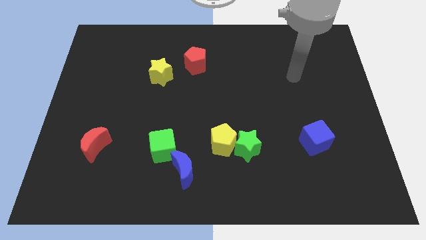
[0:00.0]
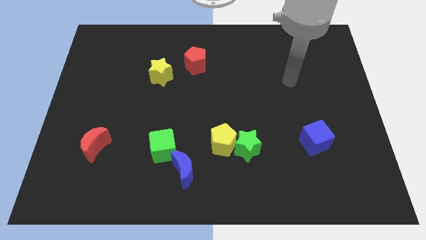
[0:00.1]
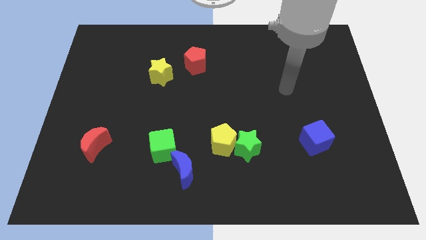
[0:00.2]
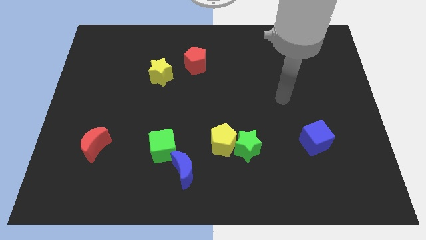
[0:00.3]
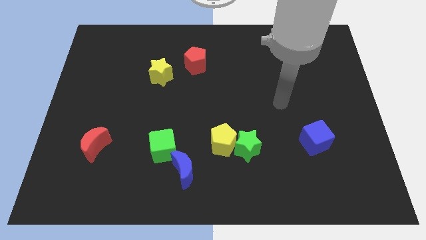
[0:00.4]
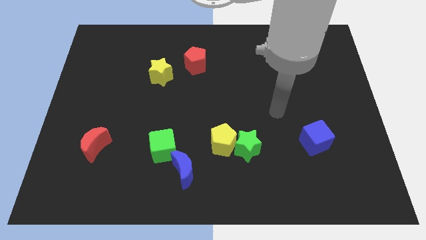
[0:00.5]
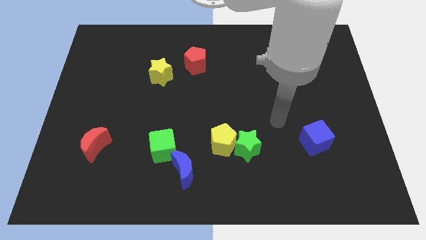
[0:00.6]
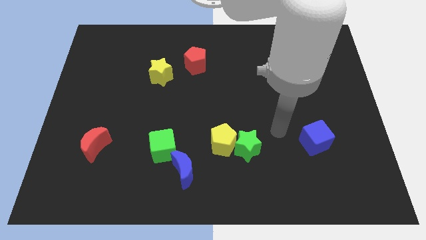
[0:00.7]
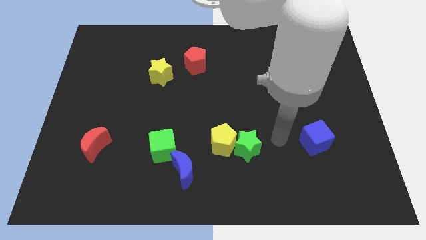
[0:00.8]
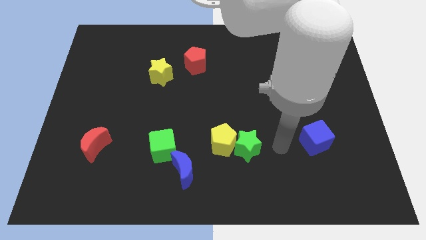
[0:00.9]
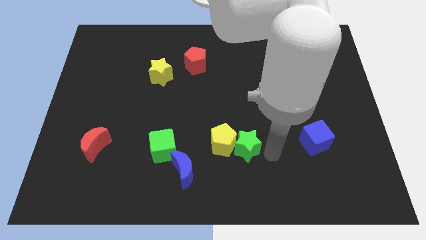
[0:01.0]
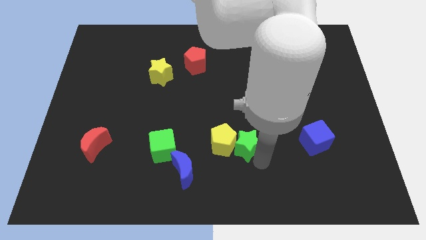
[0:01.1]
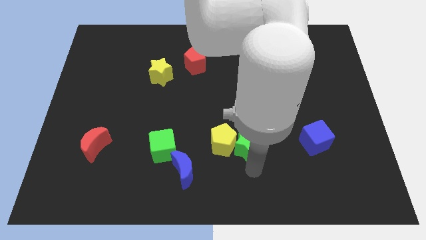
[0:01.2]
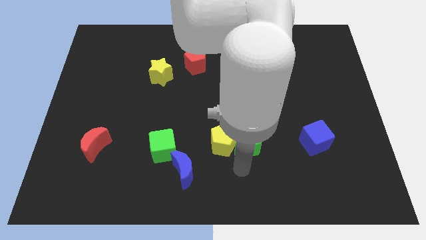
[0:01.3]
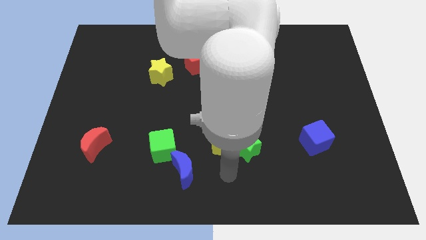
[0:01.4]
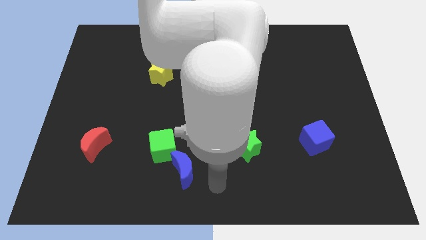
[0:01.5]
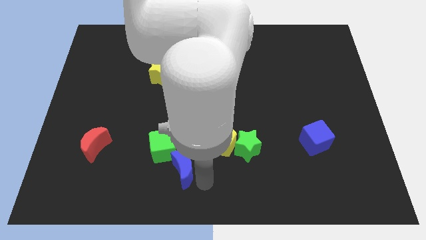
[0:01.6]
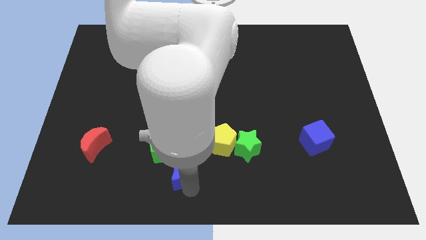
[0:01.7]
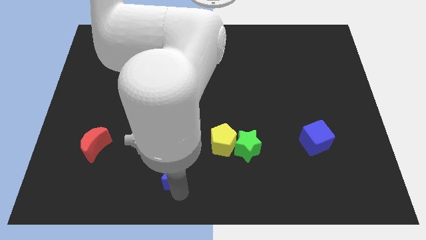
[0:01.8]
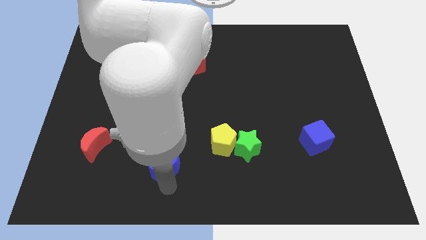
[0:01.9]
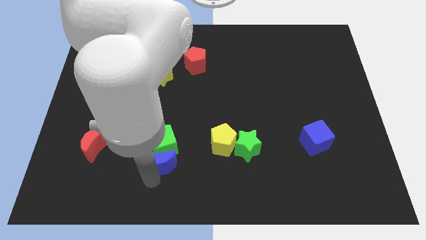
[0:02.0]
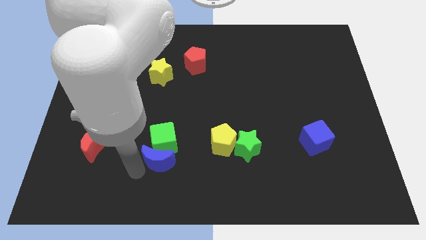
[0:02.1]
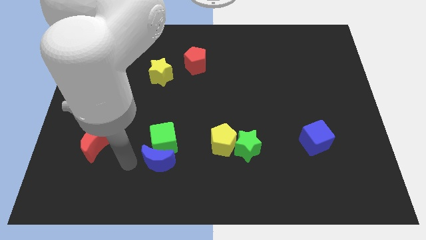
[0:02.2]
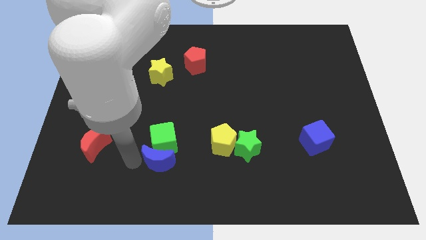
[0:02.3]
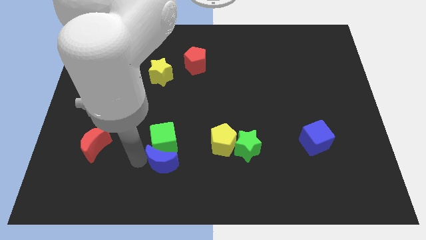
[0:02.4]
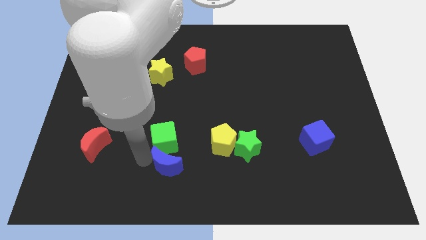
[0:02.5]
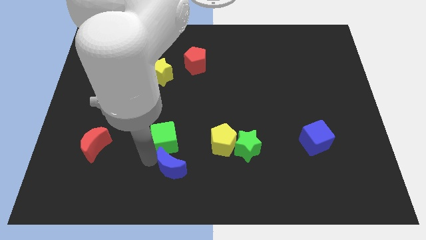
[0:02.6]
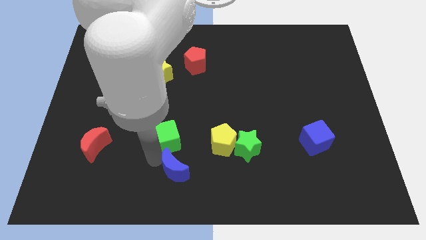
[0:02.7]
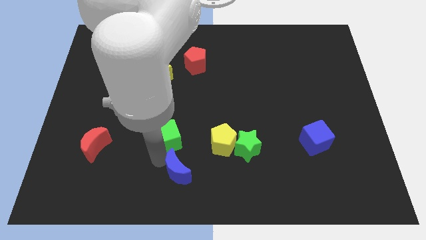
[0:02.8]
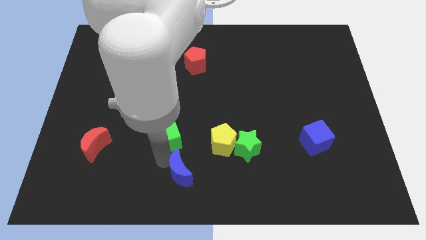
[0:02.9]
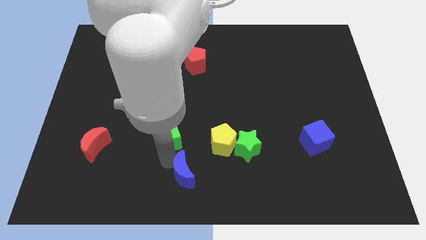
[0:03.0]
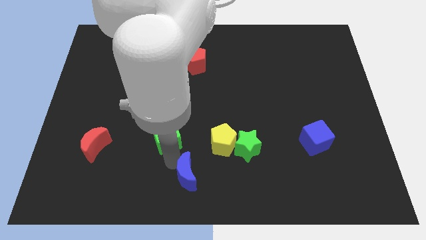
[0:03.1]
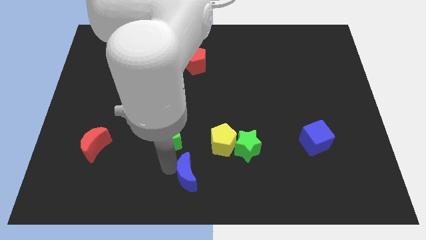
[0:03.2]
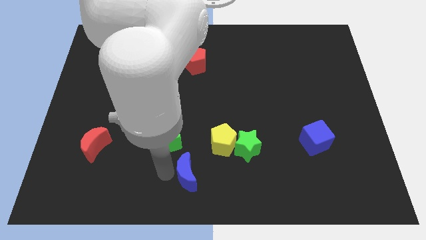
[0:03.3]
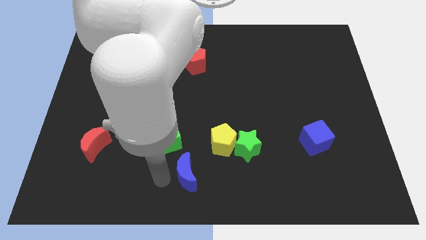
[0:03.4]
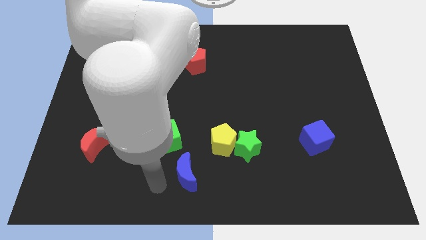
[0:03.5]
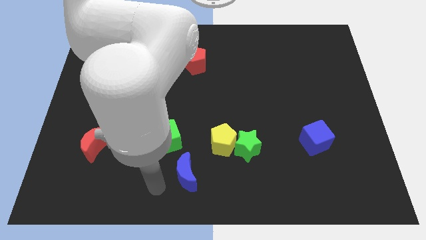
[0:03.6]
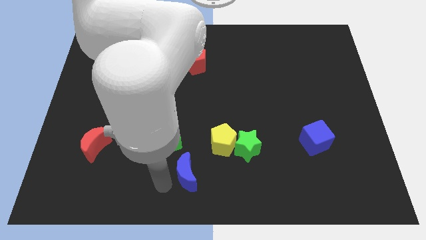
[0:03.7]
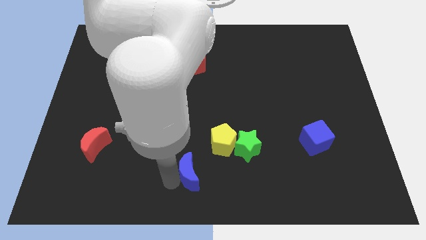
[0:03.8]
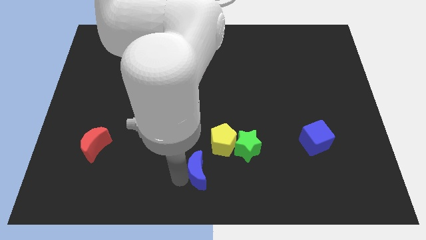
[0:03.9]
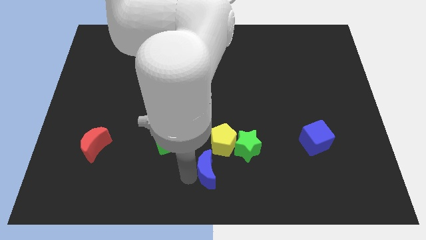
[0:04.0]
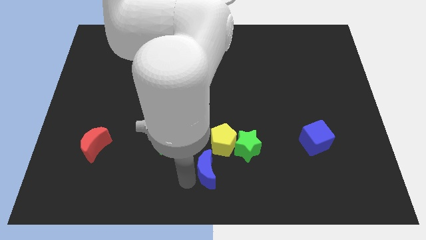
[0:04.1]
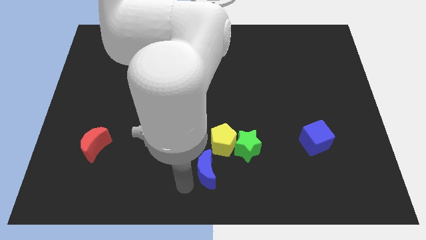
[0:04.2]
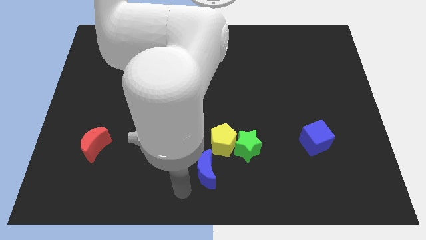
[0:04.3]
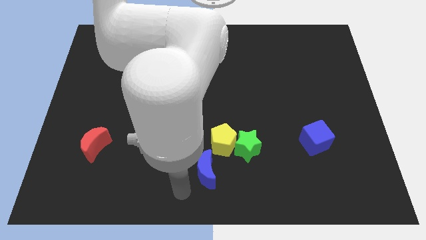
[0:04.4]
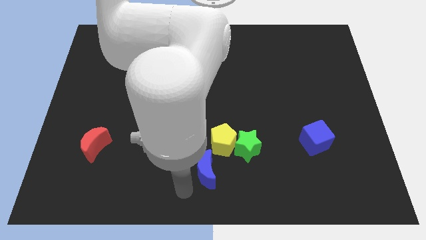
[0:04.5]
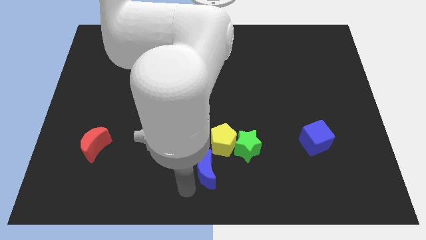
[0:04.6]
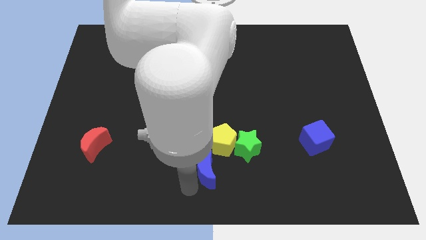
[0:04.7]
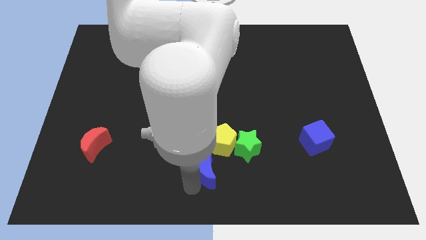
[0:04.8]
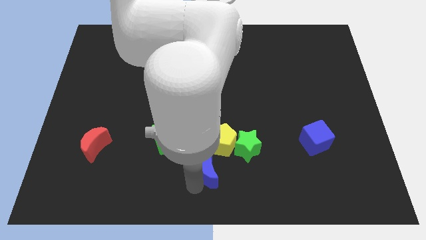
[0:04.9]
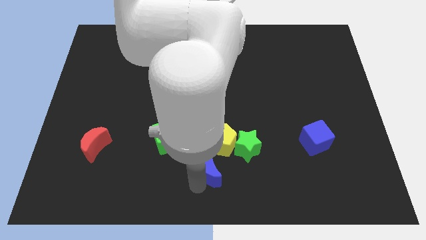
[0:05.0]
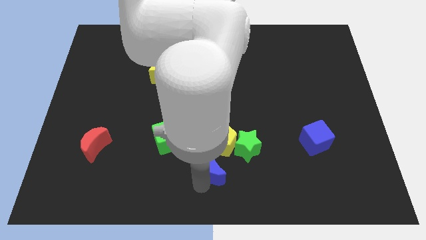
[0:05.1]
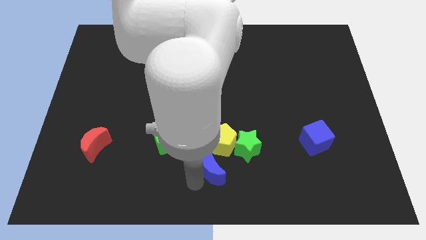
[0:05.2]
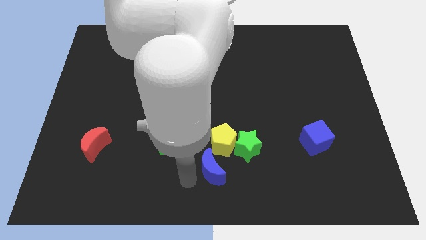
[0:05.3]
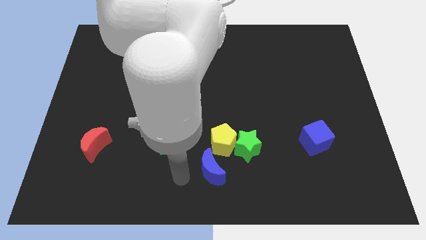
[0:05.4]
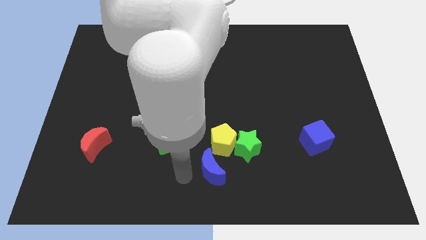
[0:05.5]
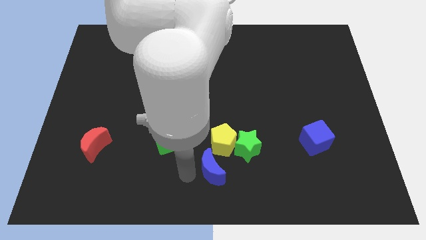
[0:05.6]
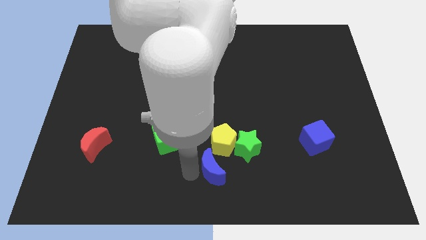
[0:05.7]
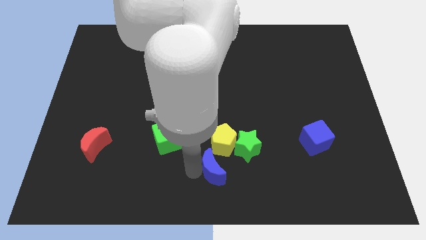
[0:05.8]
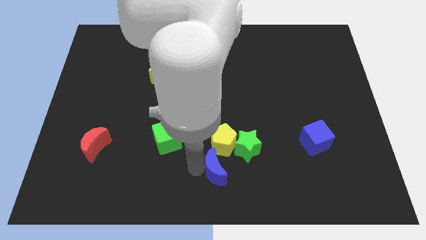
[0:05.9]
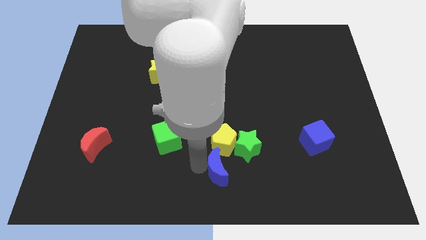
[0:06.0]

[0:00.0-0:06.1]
slightly move the blue moon right

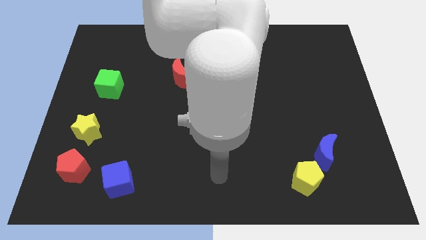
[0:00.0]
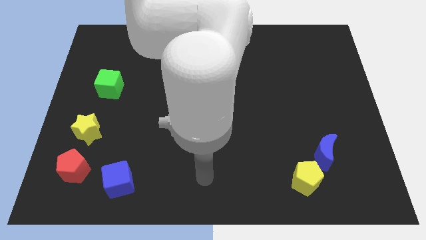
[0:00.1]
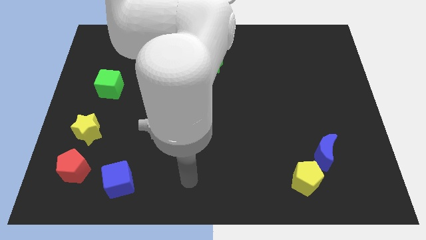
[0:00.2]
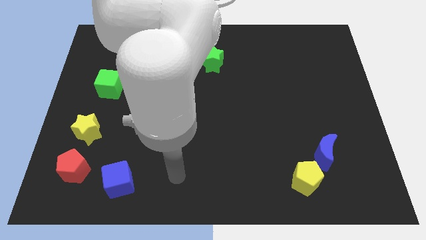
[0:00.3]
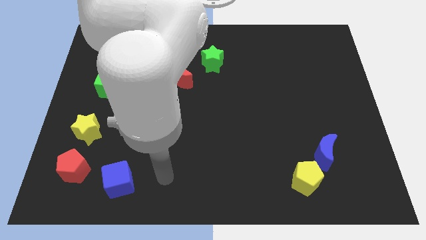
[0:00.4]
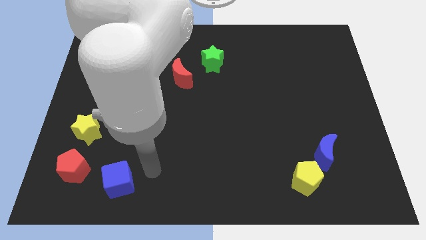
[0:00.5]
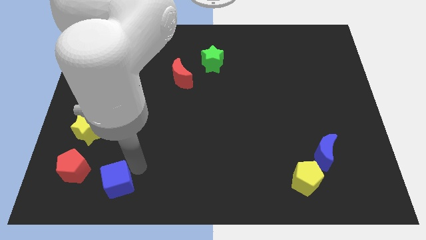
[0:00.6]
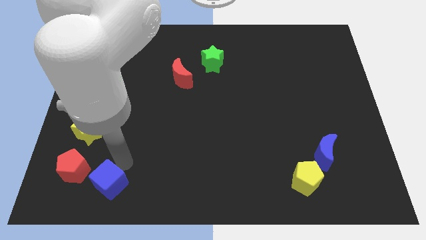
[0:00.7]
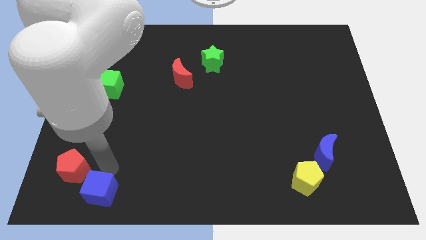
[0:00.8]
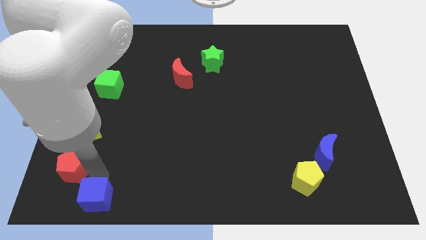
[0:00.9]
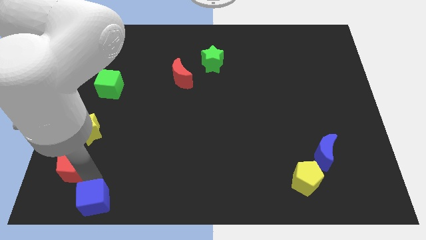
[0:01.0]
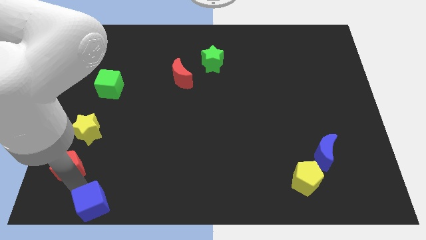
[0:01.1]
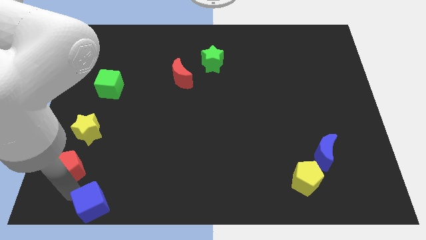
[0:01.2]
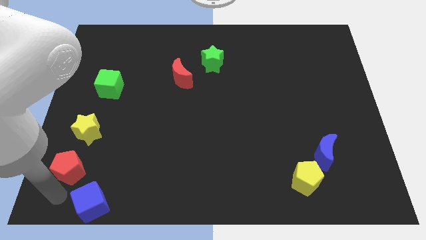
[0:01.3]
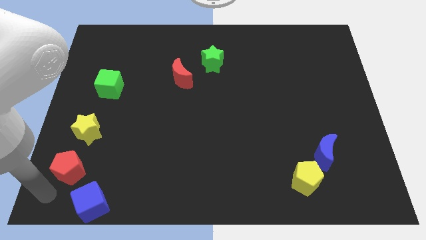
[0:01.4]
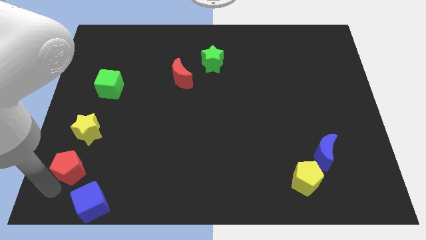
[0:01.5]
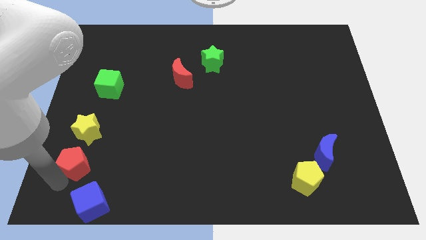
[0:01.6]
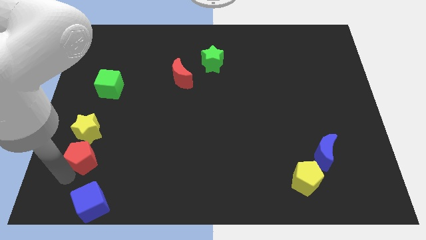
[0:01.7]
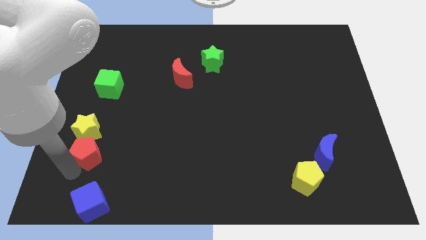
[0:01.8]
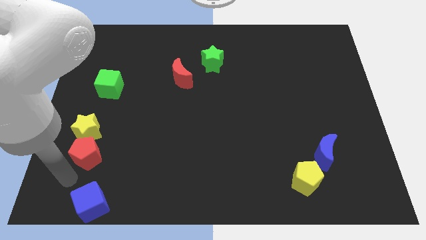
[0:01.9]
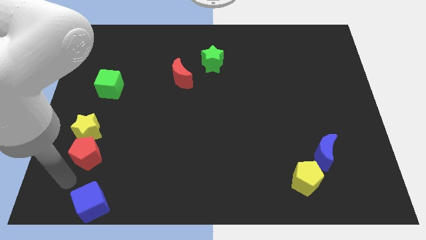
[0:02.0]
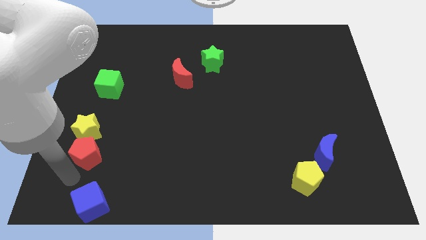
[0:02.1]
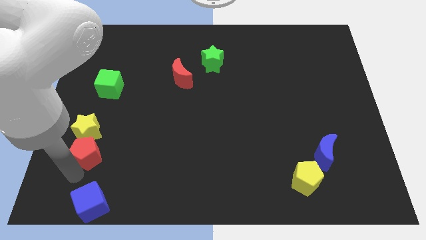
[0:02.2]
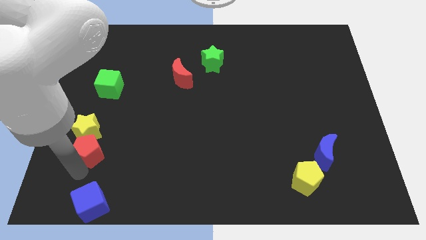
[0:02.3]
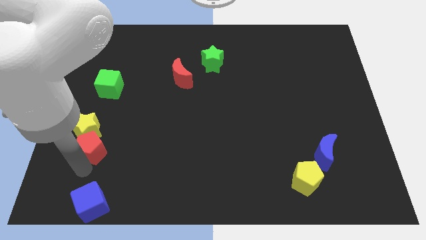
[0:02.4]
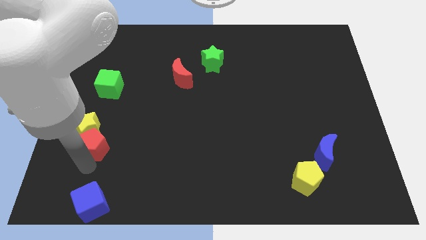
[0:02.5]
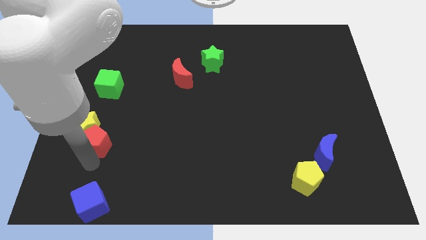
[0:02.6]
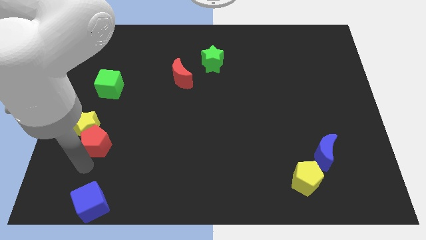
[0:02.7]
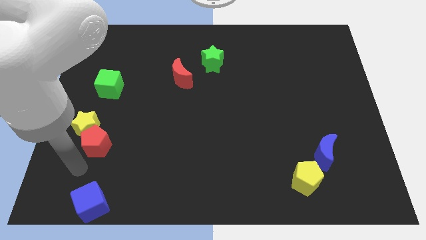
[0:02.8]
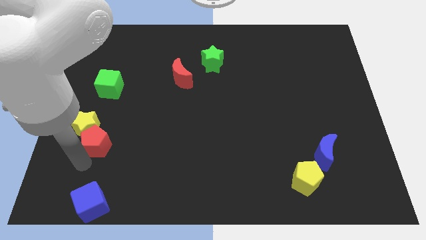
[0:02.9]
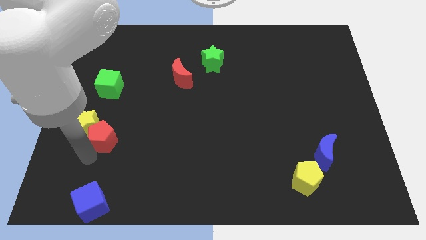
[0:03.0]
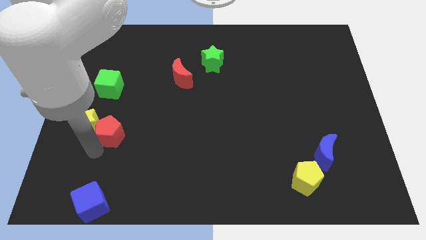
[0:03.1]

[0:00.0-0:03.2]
slightly slide the red pentagon up
